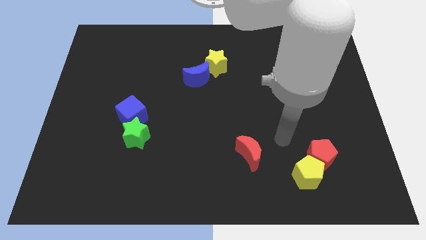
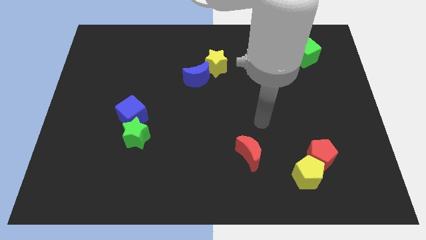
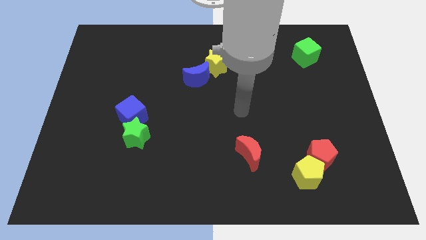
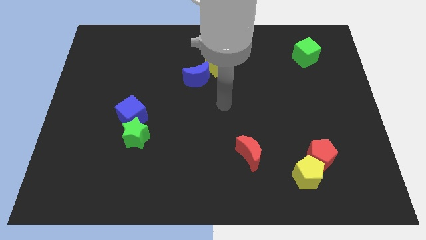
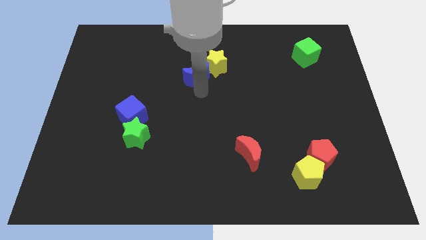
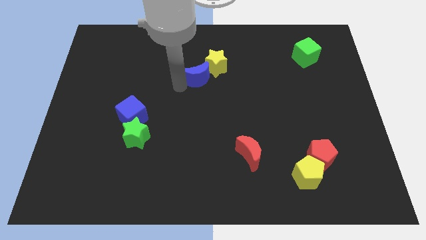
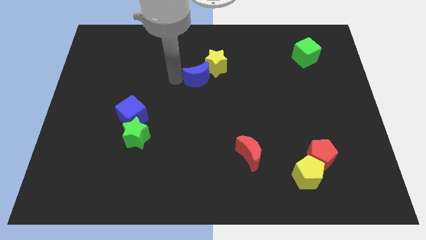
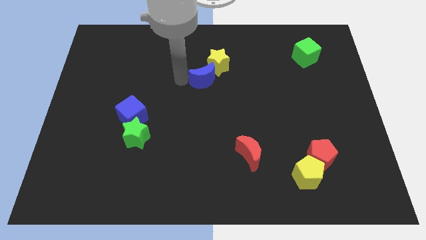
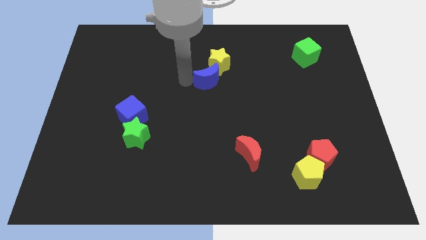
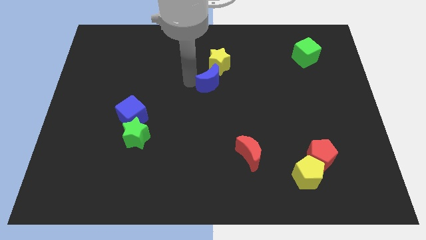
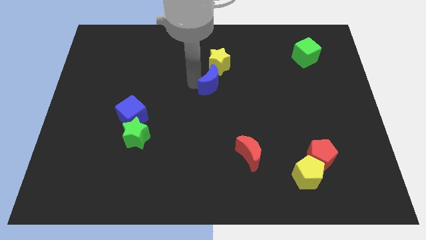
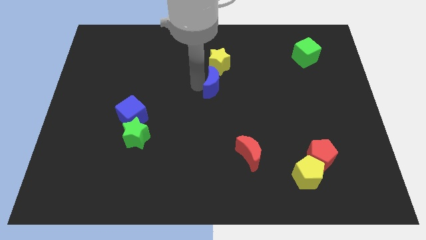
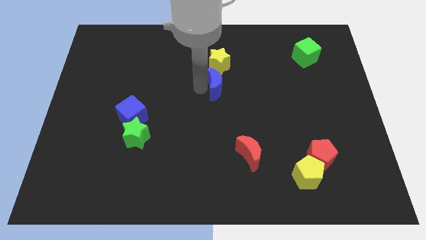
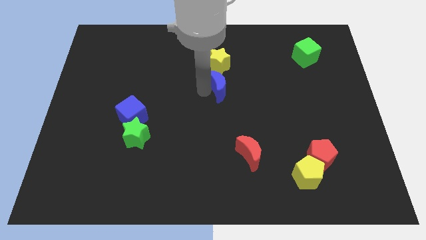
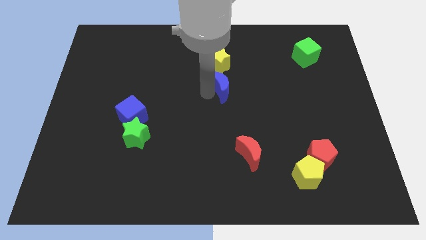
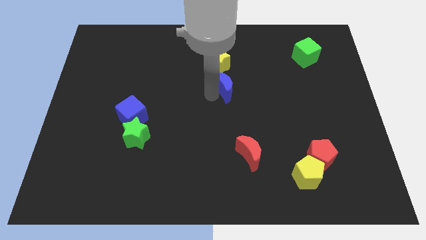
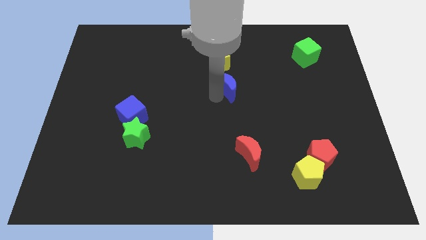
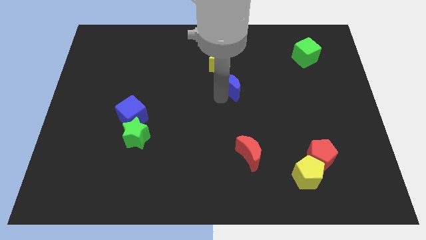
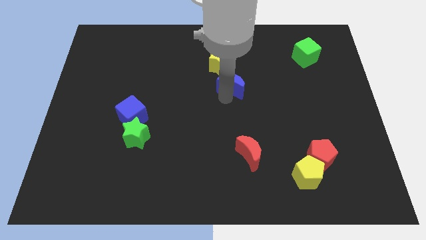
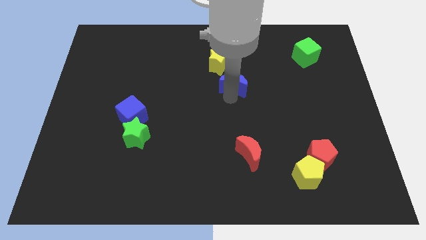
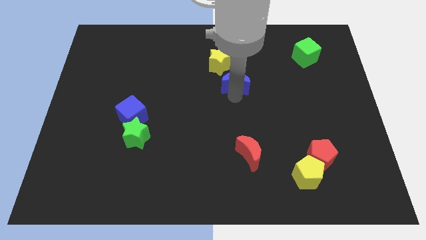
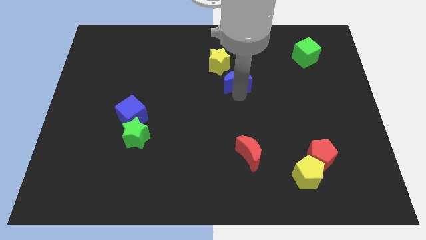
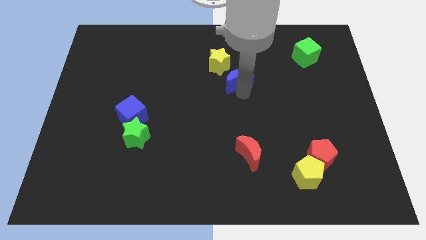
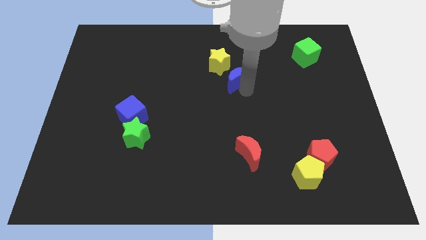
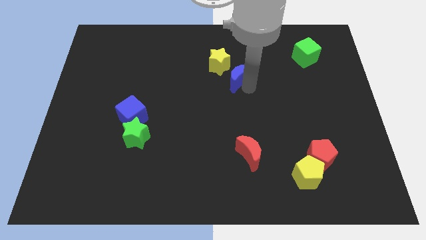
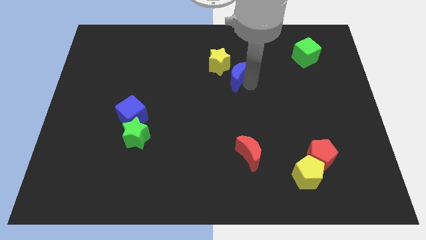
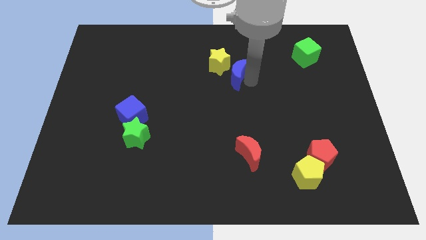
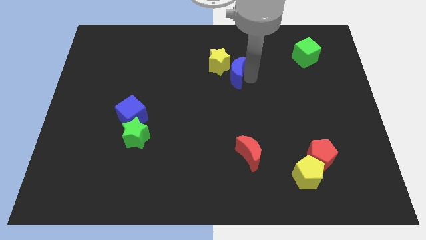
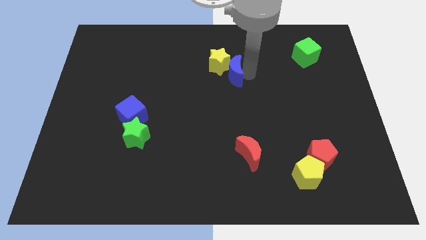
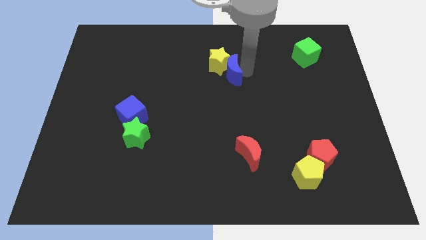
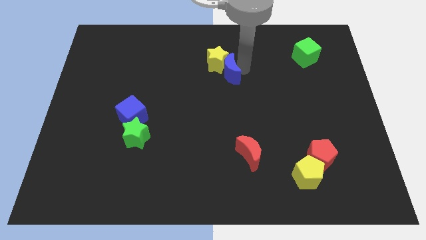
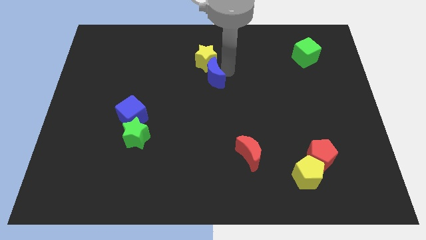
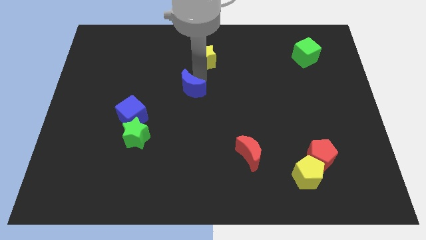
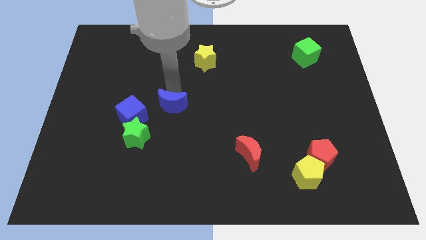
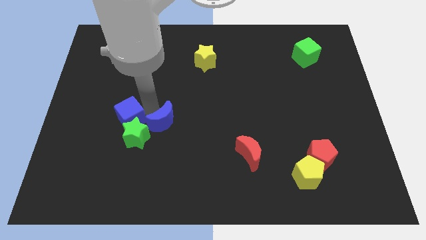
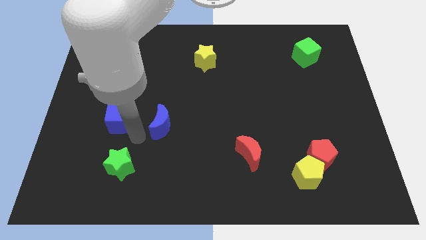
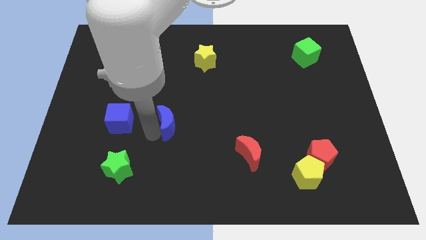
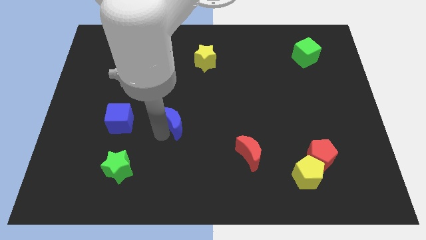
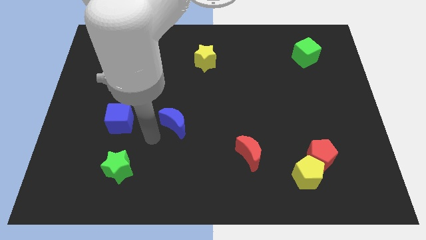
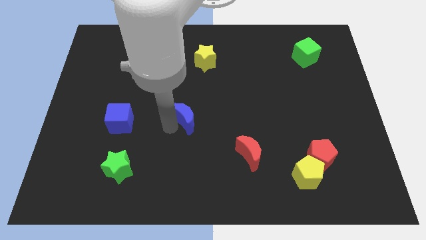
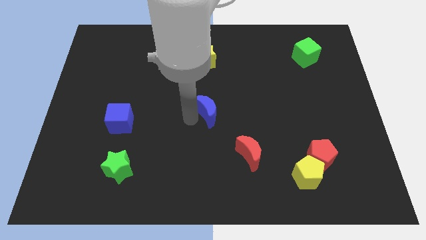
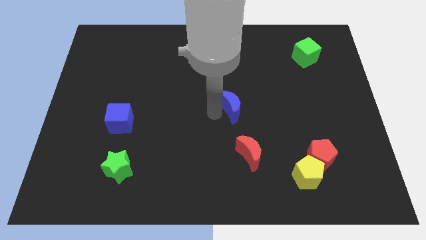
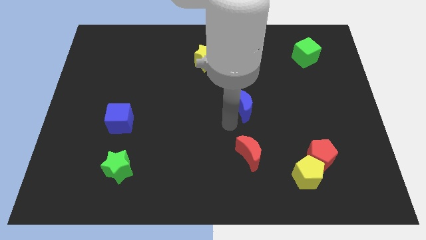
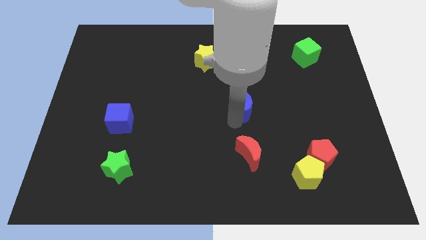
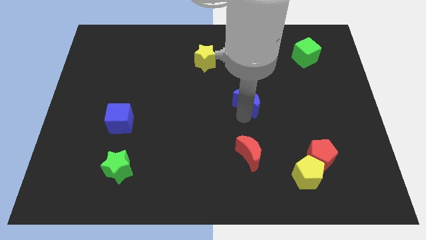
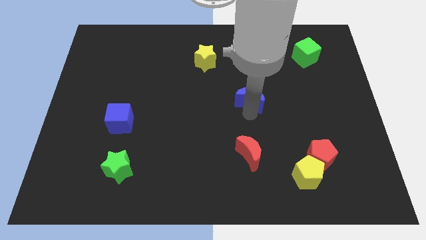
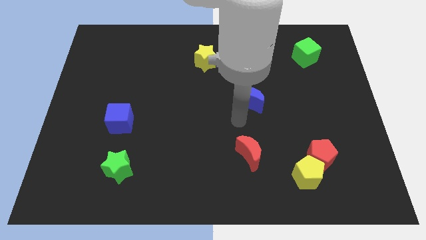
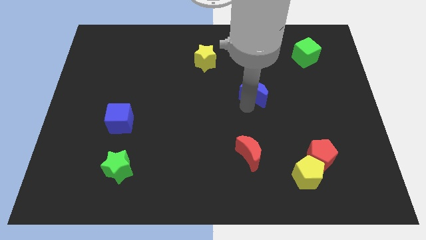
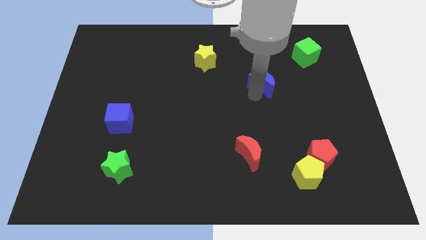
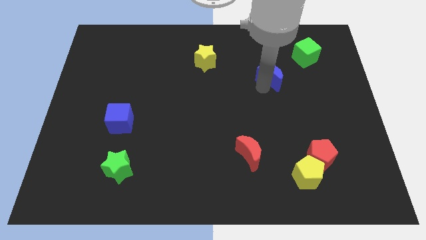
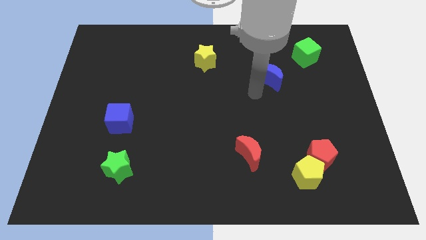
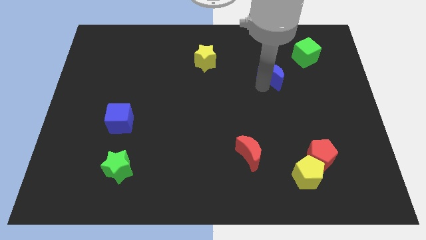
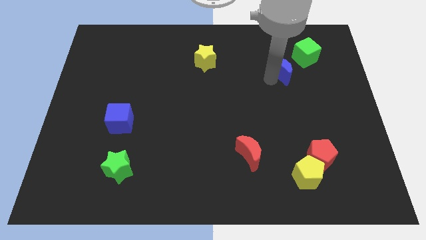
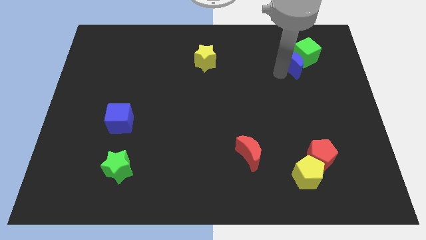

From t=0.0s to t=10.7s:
slide the blue moon towards the green cube

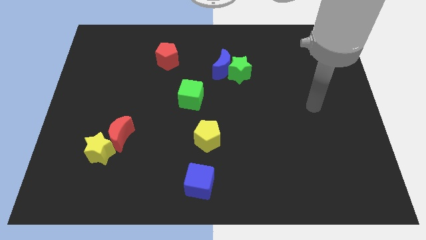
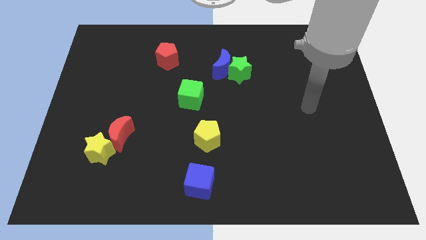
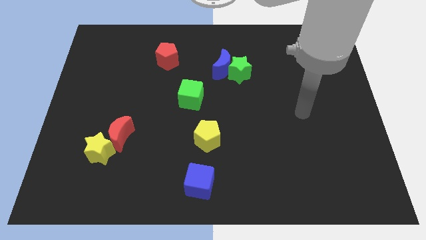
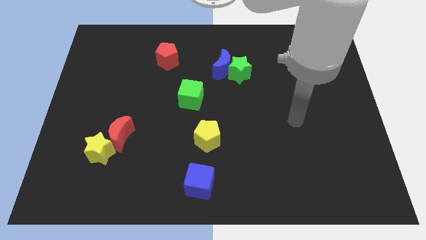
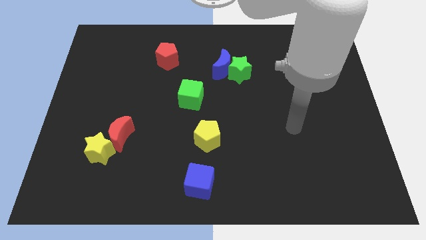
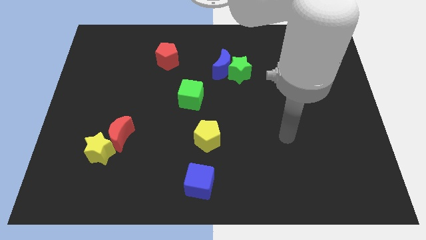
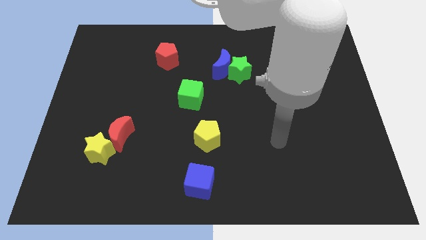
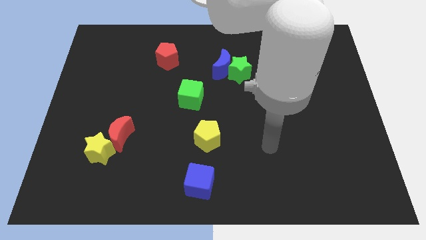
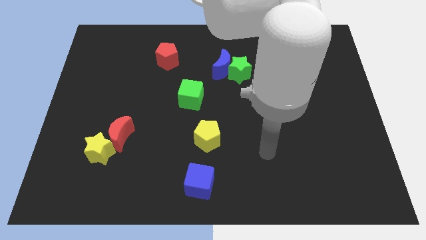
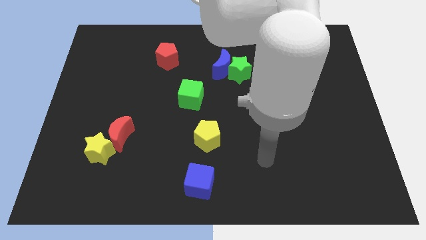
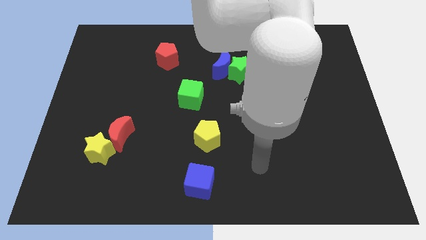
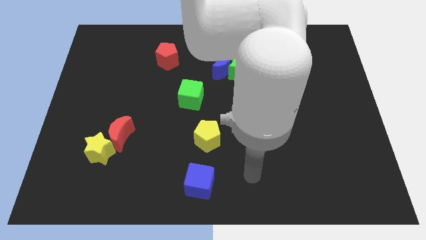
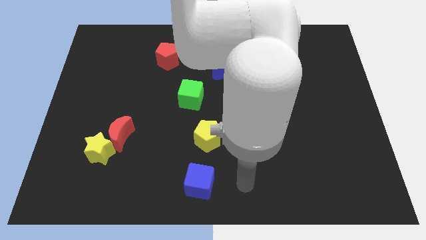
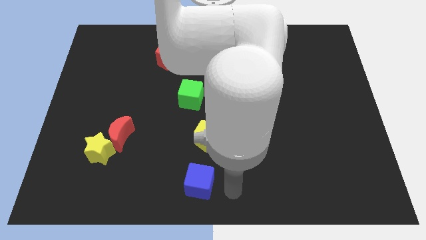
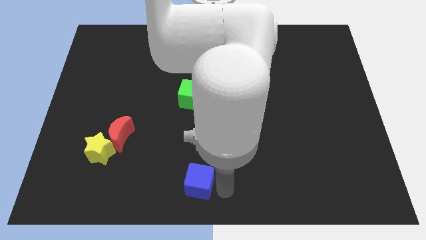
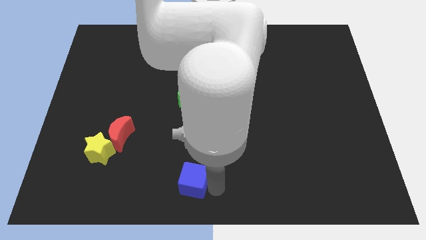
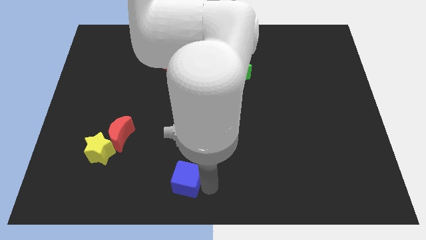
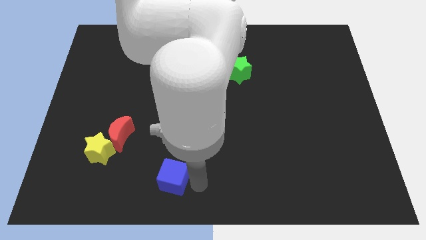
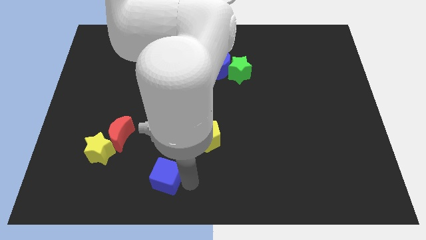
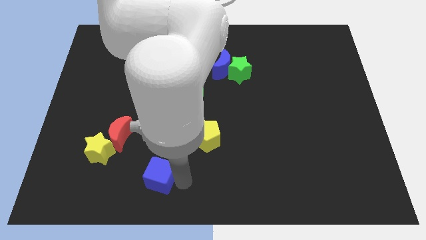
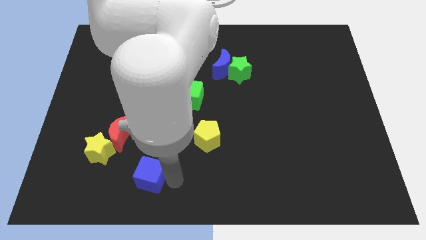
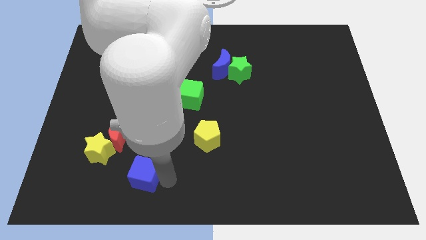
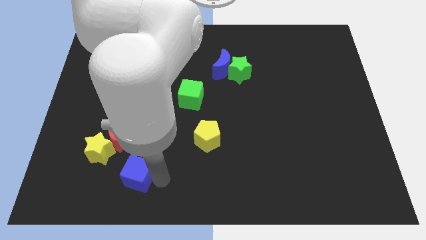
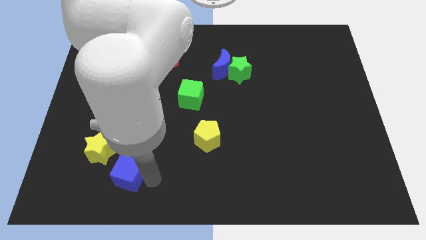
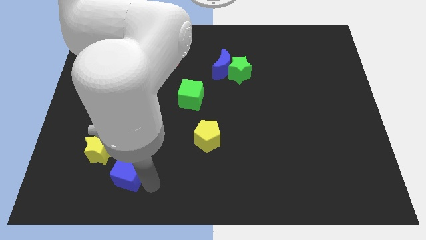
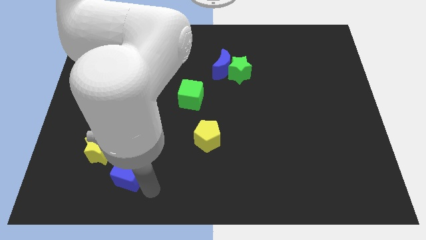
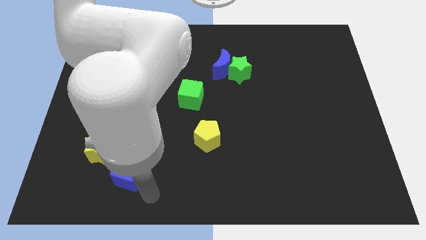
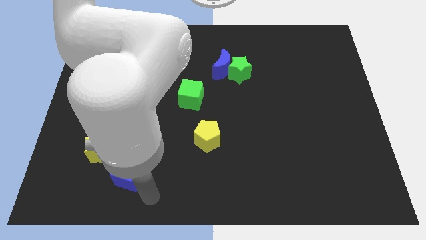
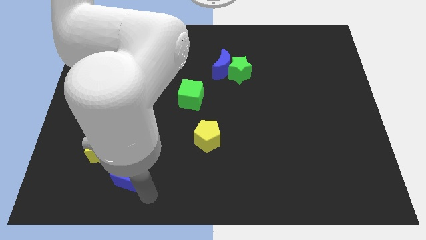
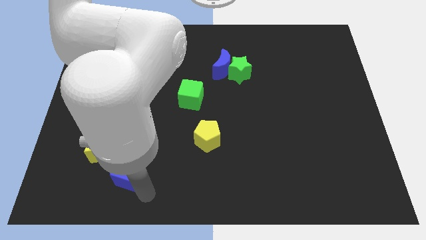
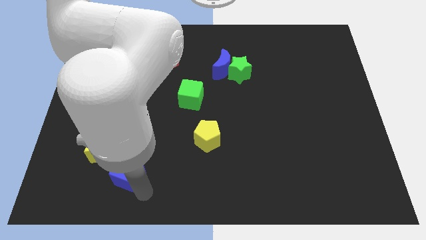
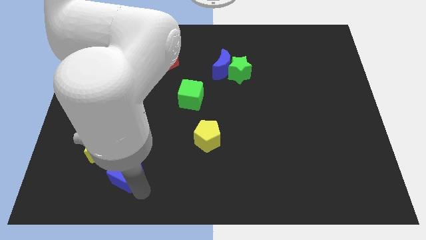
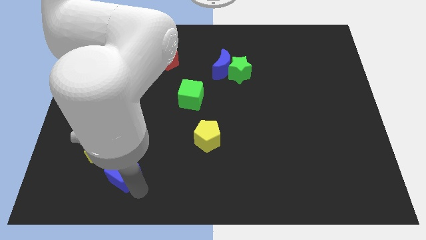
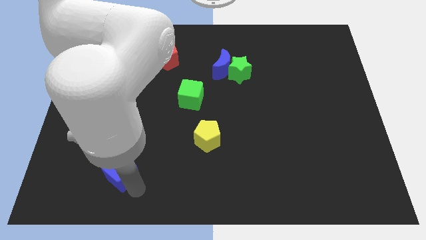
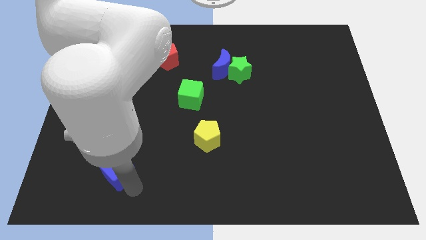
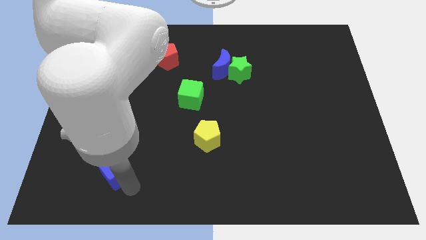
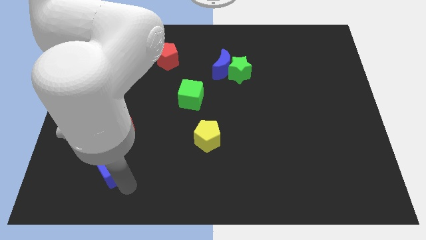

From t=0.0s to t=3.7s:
put the blue cube to the yellow star
